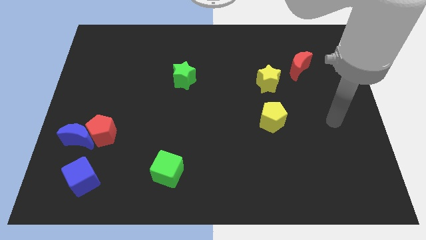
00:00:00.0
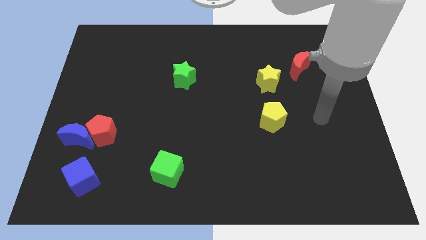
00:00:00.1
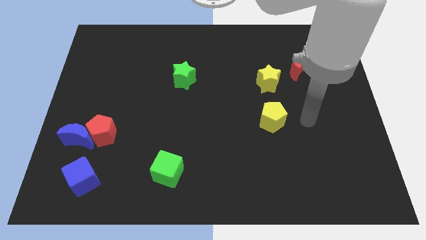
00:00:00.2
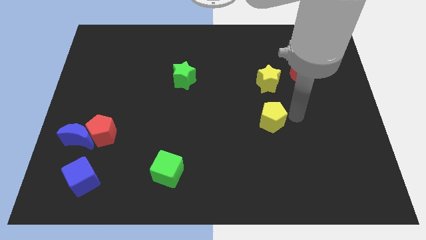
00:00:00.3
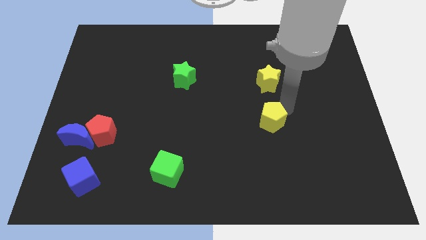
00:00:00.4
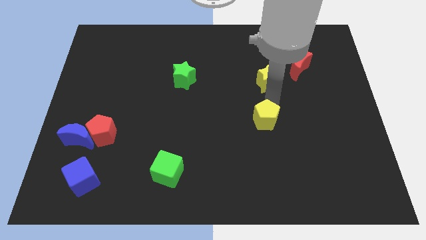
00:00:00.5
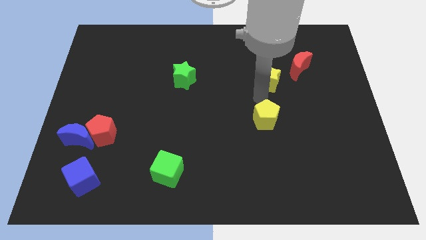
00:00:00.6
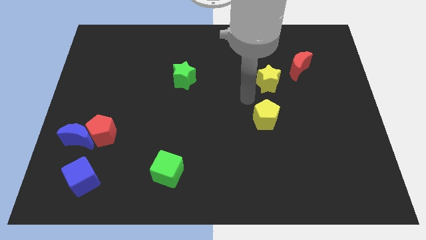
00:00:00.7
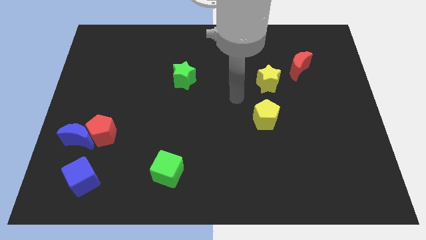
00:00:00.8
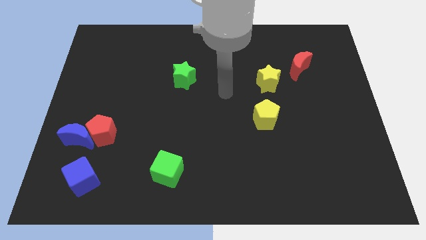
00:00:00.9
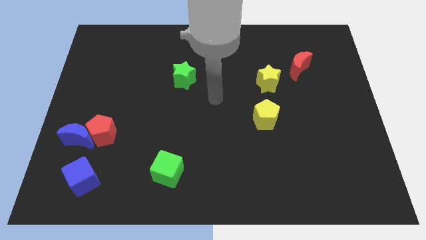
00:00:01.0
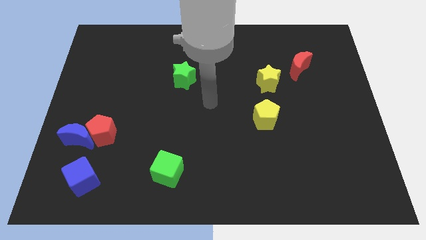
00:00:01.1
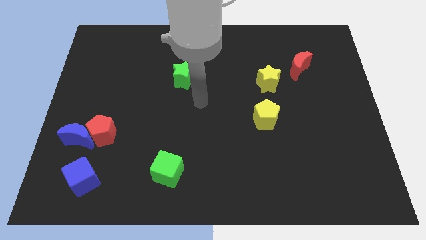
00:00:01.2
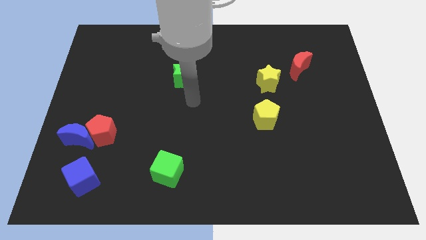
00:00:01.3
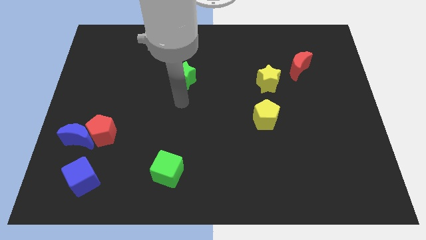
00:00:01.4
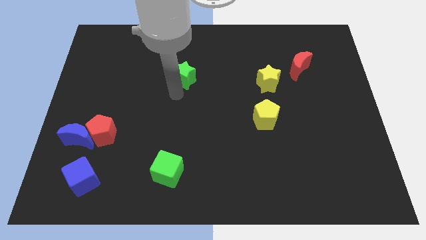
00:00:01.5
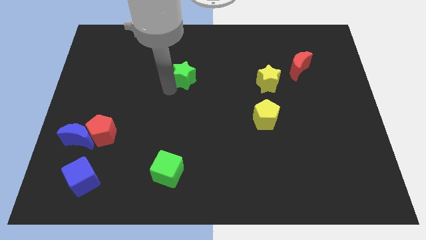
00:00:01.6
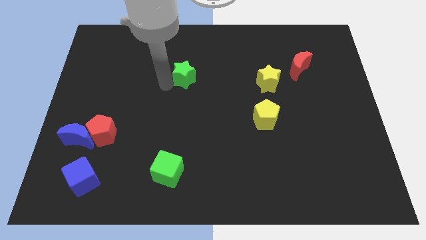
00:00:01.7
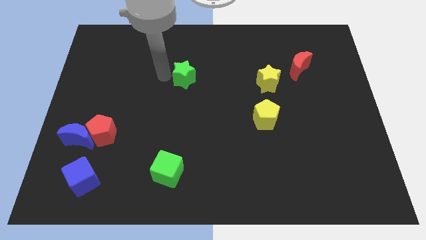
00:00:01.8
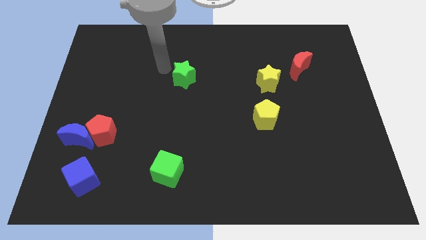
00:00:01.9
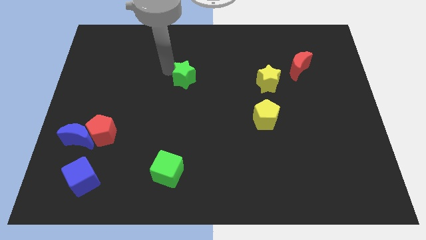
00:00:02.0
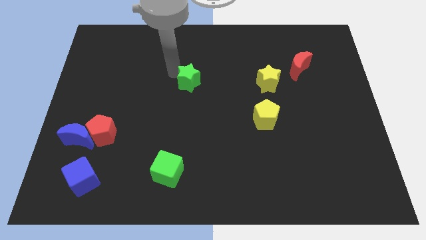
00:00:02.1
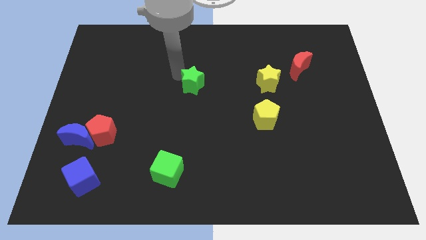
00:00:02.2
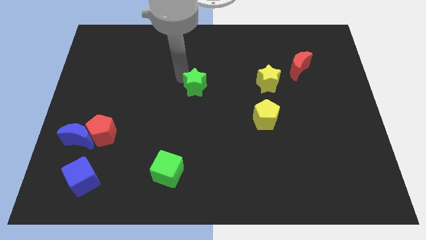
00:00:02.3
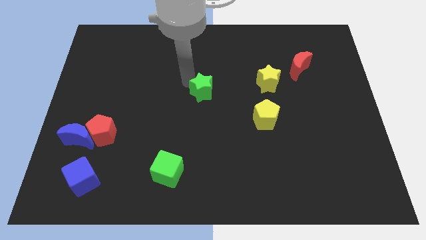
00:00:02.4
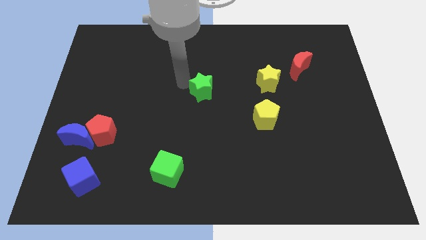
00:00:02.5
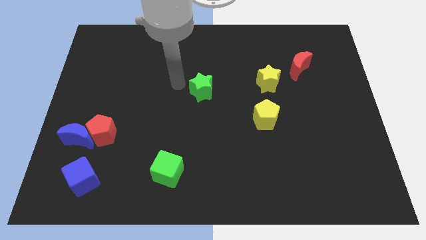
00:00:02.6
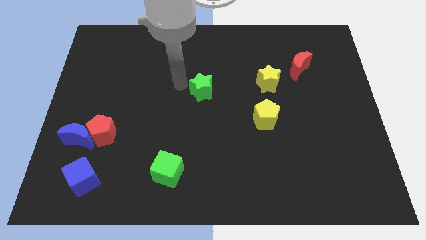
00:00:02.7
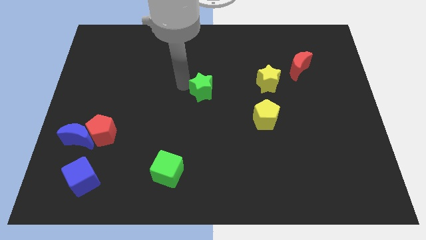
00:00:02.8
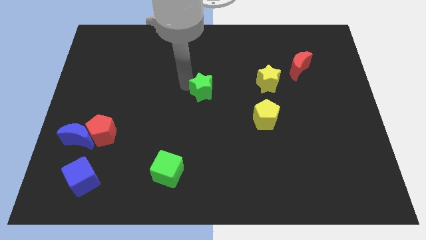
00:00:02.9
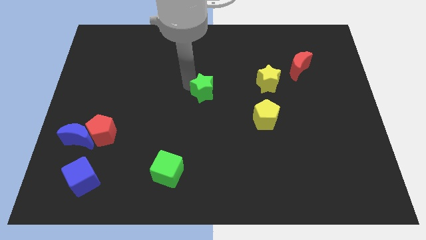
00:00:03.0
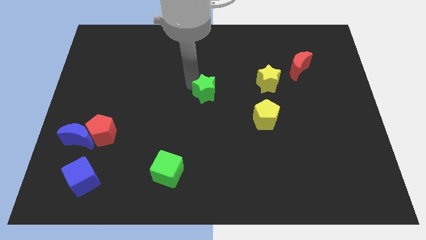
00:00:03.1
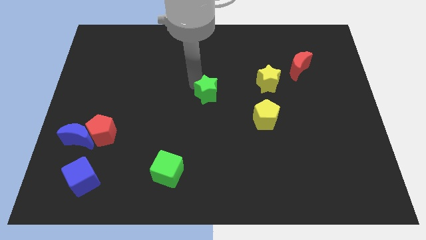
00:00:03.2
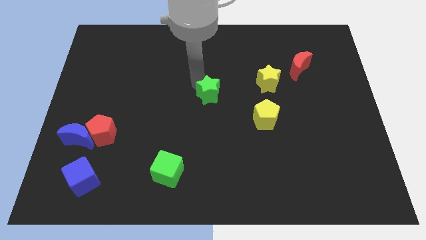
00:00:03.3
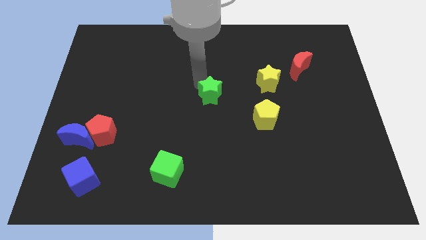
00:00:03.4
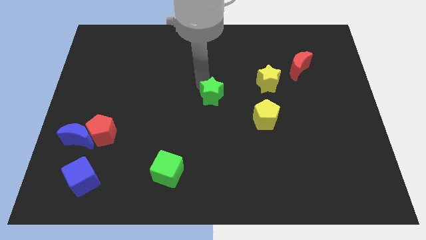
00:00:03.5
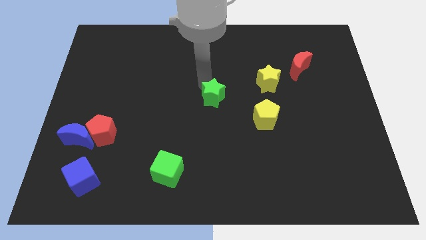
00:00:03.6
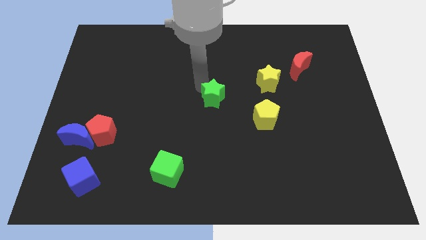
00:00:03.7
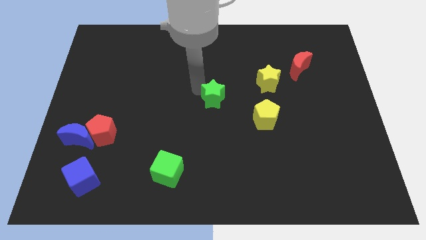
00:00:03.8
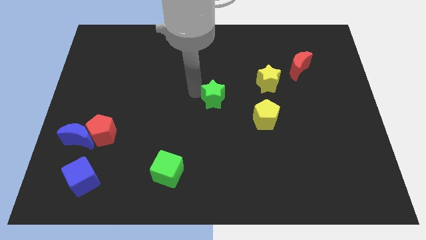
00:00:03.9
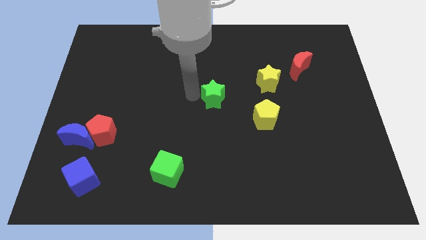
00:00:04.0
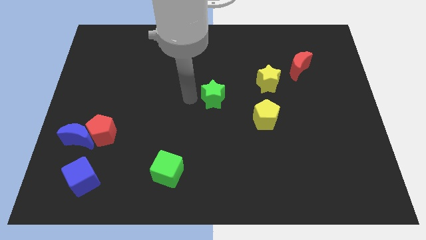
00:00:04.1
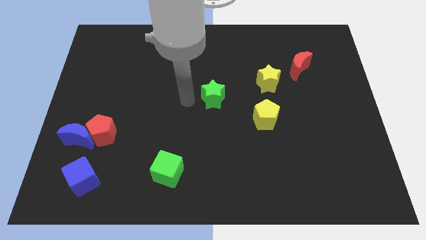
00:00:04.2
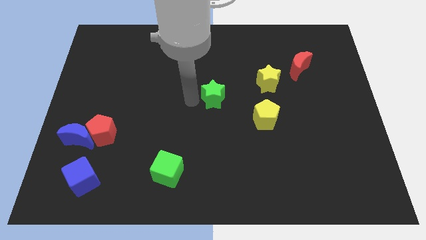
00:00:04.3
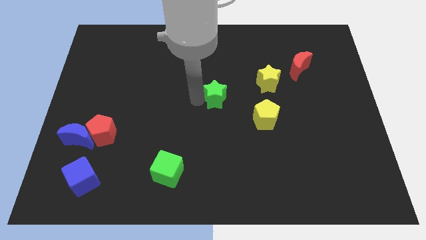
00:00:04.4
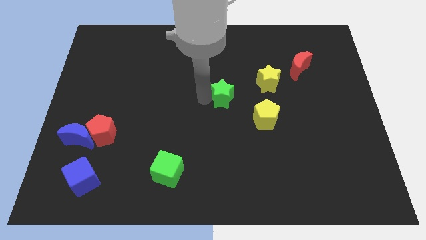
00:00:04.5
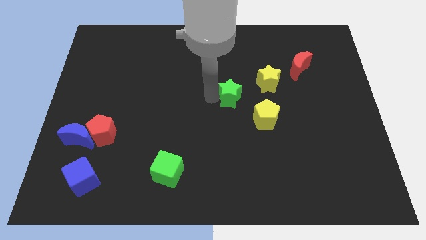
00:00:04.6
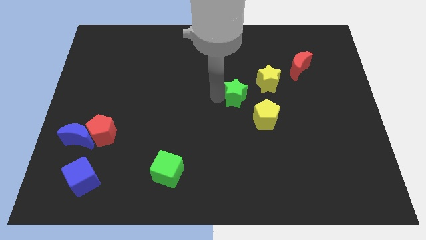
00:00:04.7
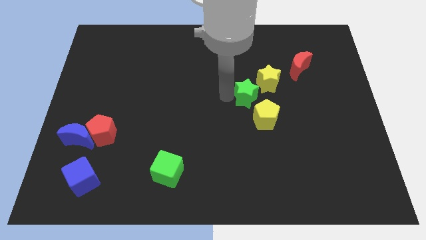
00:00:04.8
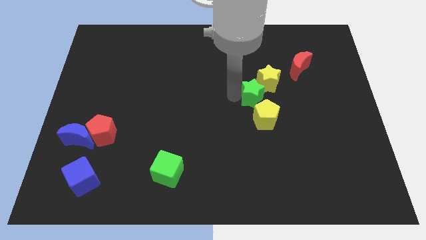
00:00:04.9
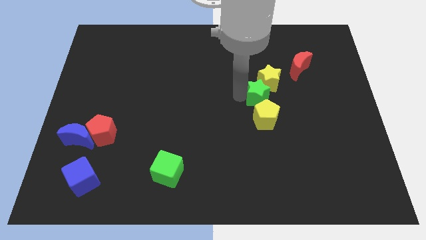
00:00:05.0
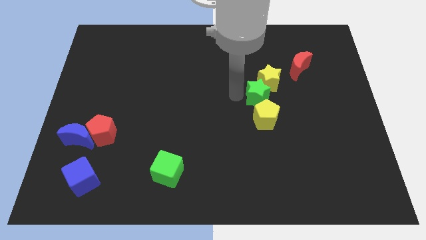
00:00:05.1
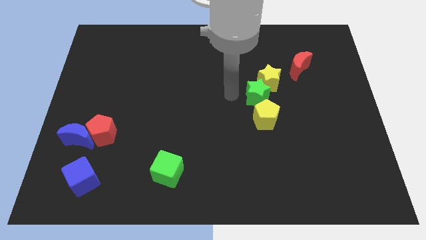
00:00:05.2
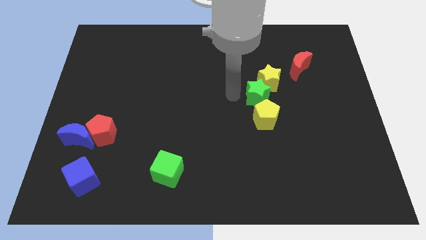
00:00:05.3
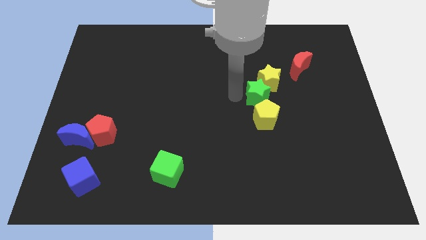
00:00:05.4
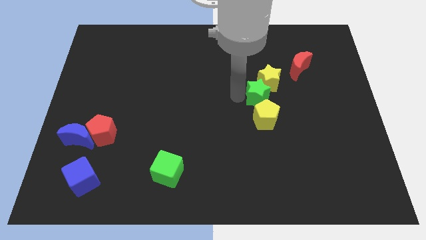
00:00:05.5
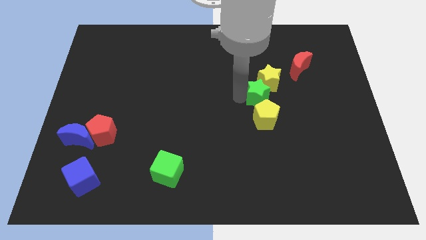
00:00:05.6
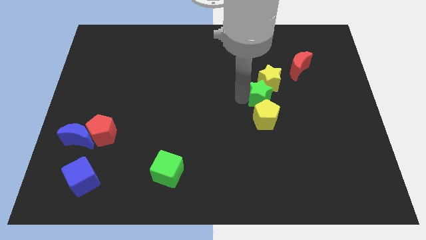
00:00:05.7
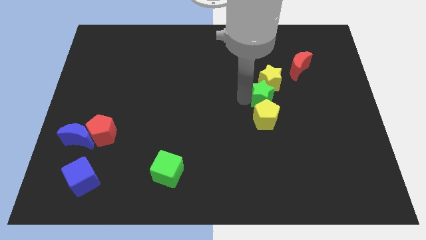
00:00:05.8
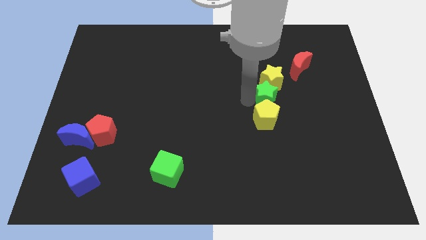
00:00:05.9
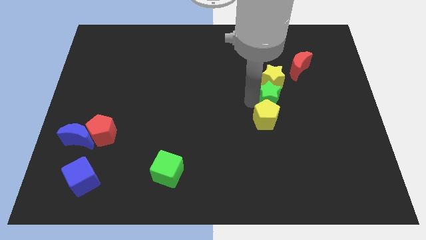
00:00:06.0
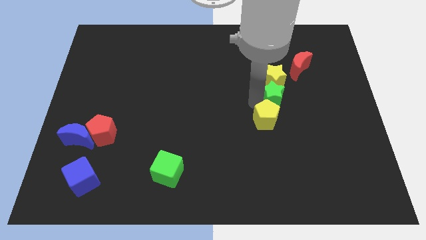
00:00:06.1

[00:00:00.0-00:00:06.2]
push the green star to the right

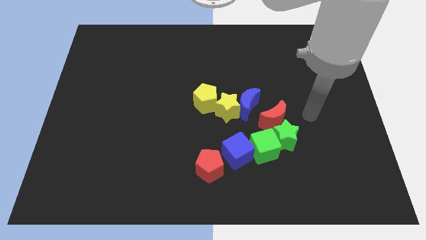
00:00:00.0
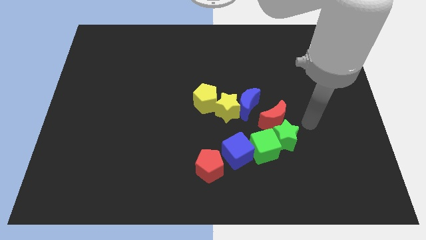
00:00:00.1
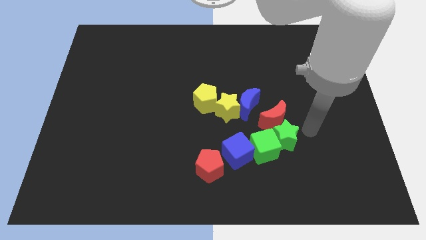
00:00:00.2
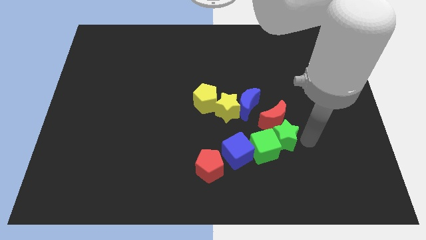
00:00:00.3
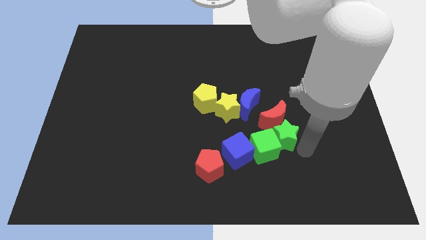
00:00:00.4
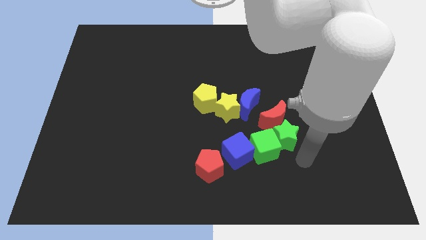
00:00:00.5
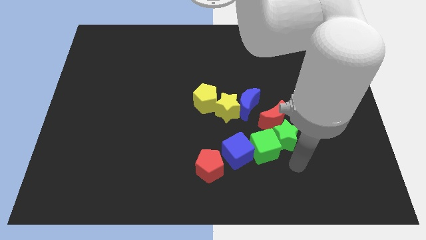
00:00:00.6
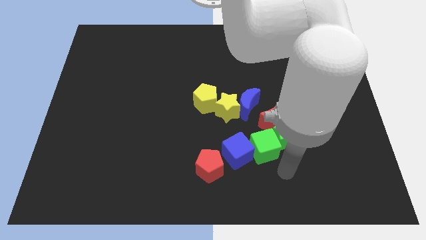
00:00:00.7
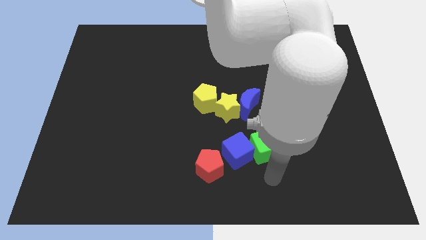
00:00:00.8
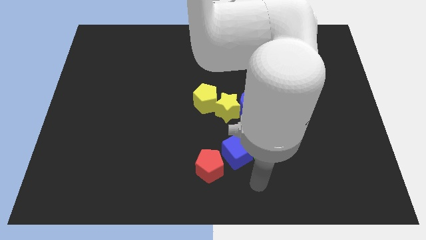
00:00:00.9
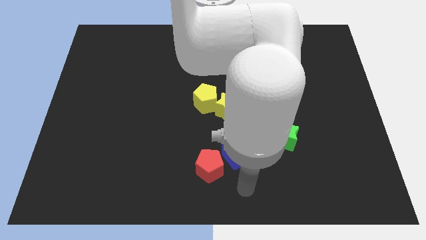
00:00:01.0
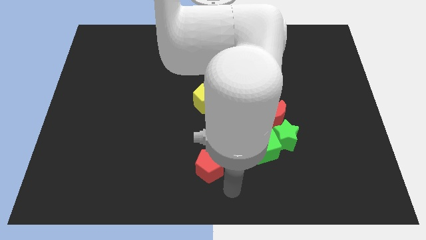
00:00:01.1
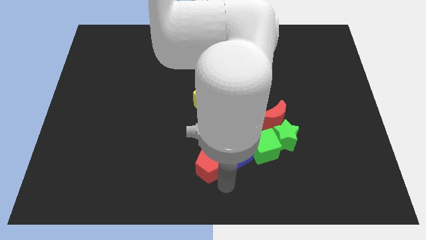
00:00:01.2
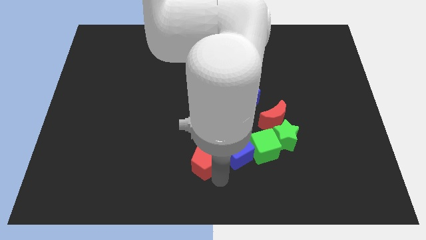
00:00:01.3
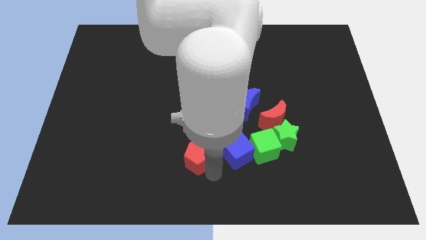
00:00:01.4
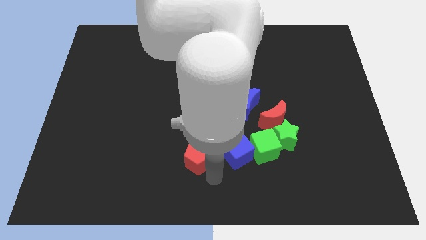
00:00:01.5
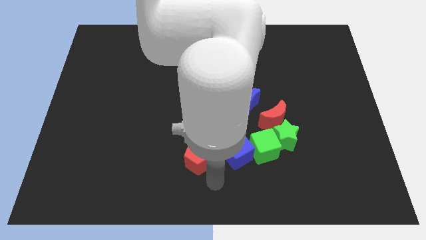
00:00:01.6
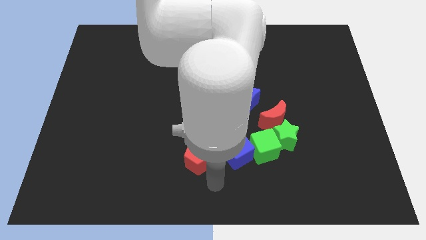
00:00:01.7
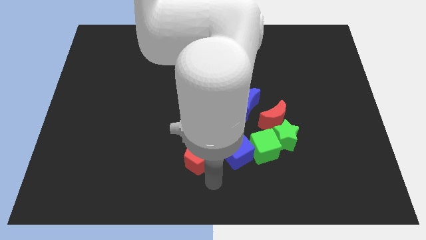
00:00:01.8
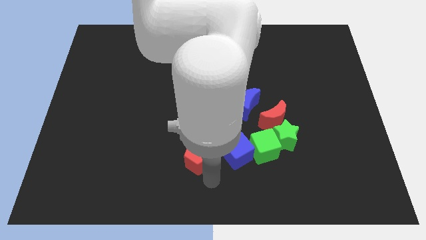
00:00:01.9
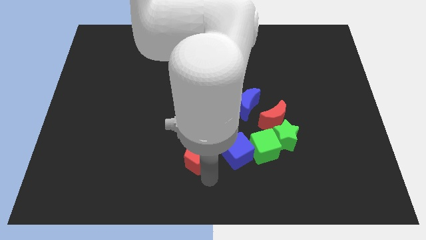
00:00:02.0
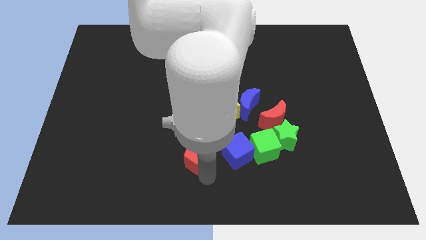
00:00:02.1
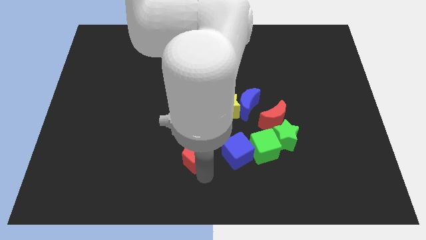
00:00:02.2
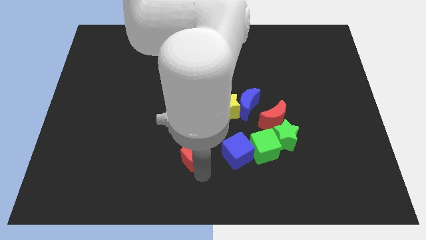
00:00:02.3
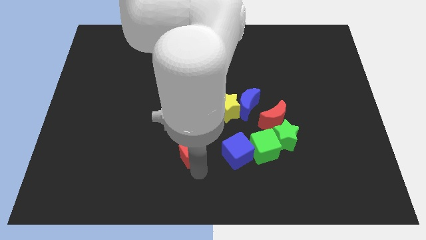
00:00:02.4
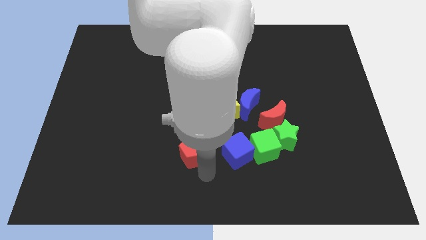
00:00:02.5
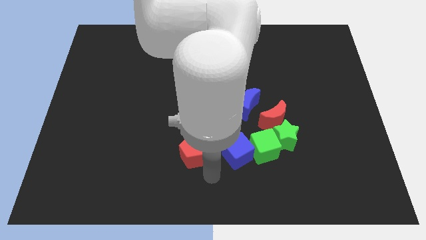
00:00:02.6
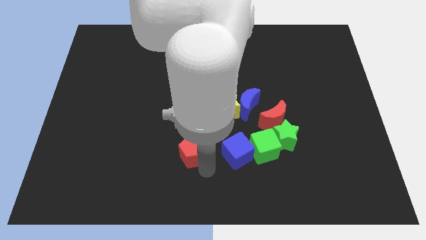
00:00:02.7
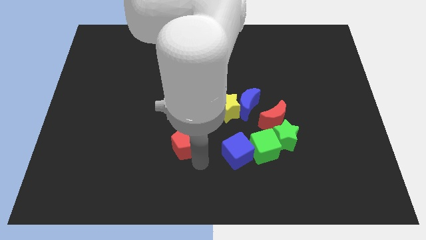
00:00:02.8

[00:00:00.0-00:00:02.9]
slide the red pentagon somewhat upwards and then left
